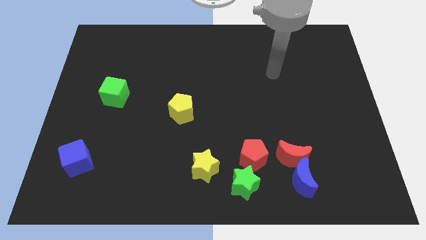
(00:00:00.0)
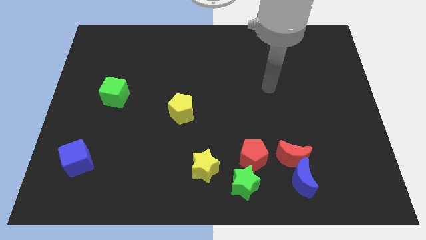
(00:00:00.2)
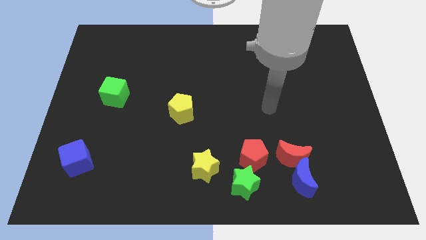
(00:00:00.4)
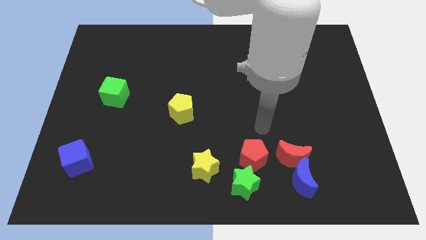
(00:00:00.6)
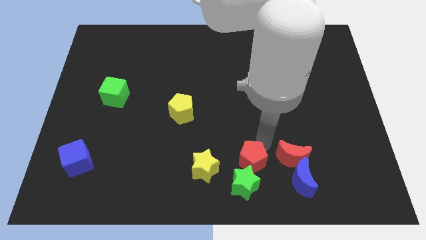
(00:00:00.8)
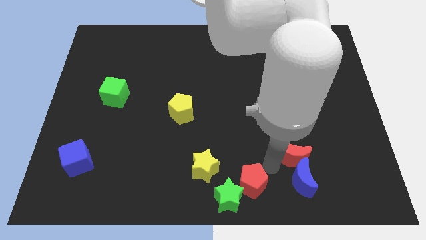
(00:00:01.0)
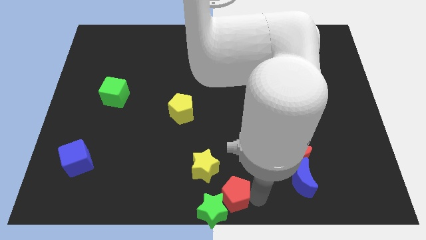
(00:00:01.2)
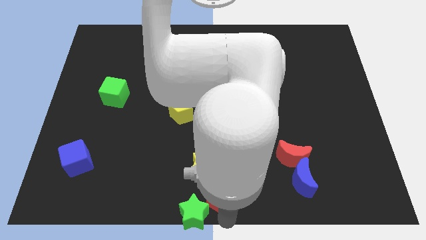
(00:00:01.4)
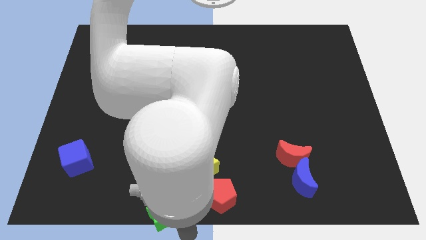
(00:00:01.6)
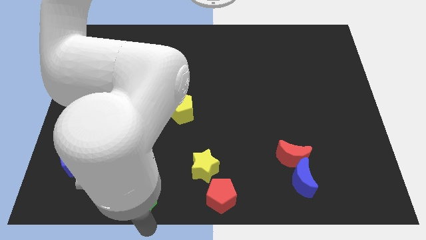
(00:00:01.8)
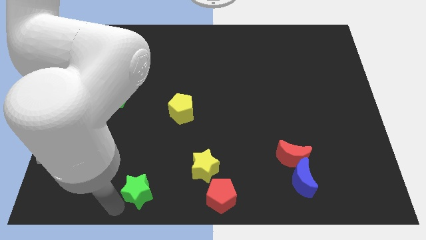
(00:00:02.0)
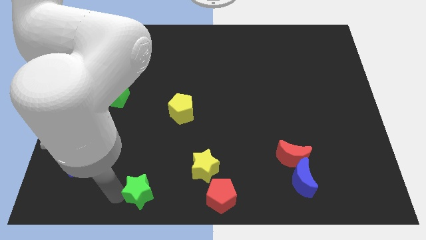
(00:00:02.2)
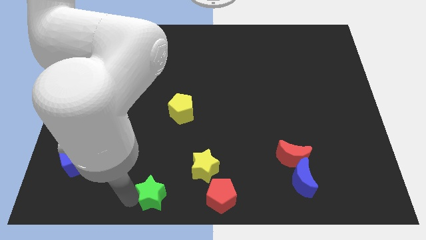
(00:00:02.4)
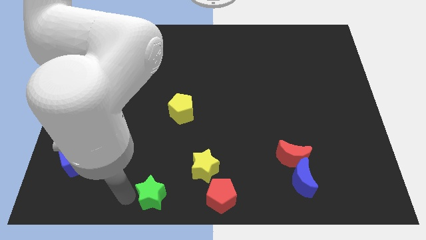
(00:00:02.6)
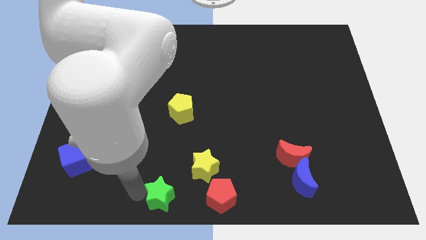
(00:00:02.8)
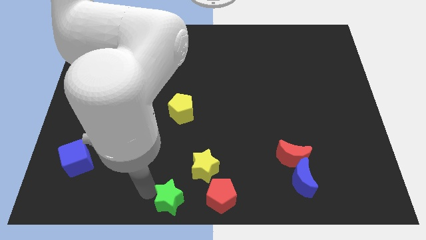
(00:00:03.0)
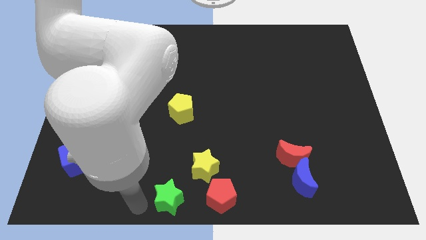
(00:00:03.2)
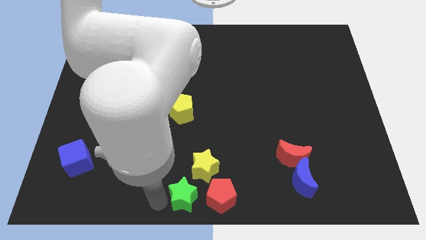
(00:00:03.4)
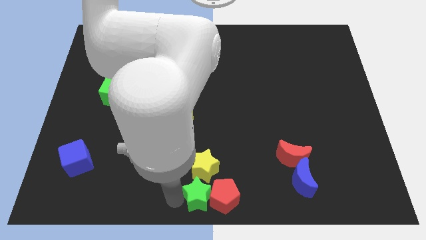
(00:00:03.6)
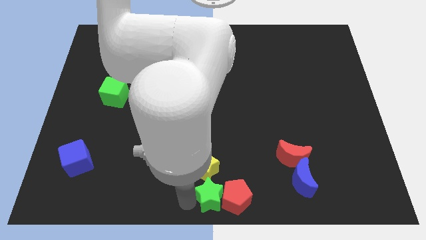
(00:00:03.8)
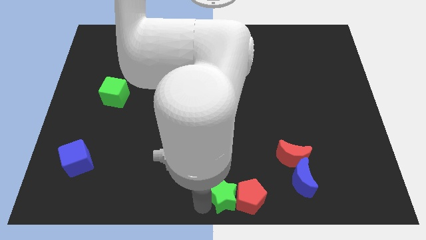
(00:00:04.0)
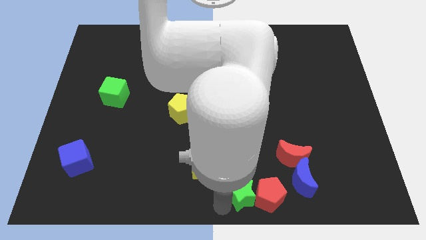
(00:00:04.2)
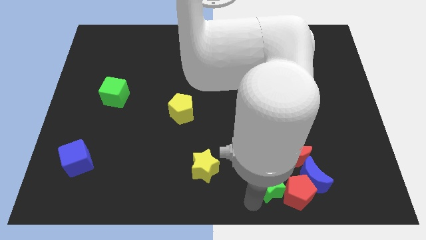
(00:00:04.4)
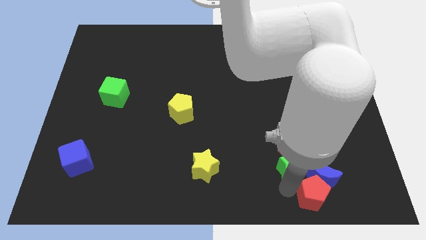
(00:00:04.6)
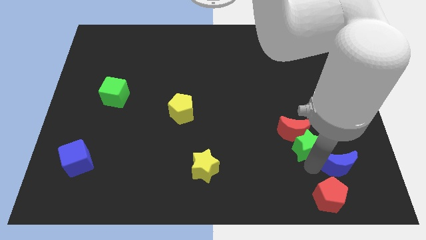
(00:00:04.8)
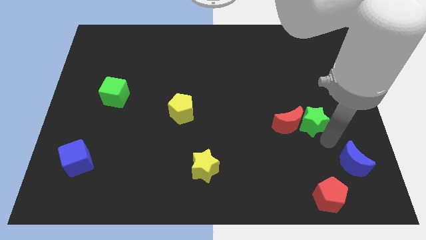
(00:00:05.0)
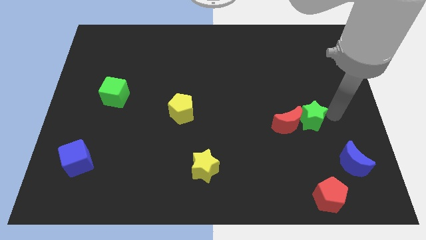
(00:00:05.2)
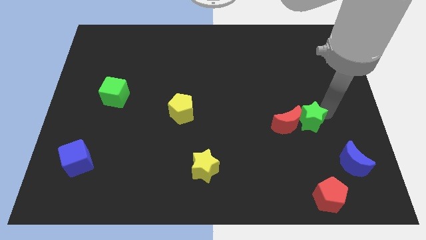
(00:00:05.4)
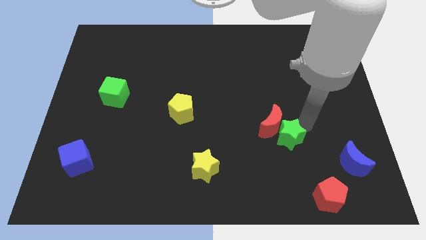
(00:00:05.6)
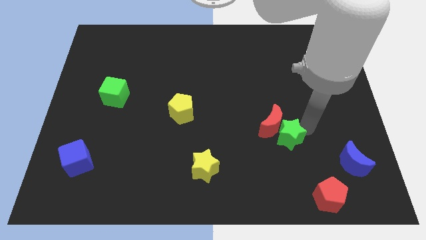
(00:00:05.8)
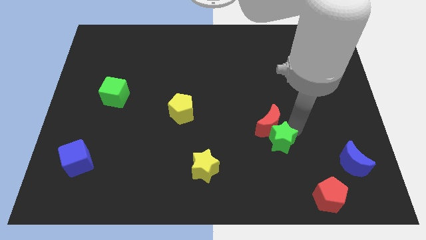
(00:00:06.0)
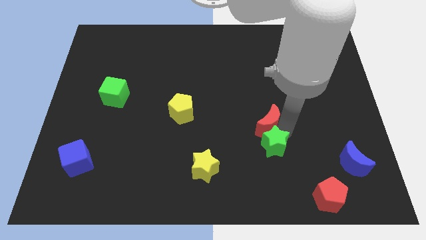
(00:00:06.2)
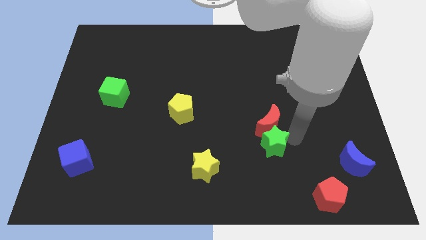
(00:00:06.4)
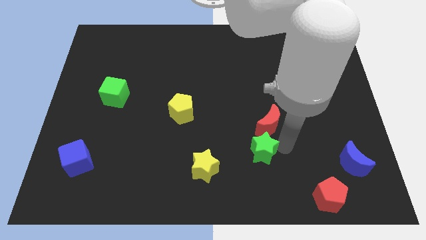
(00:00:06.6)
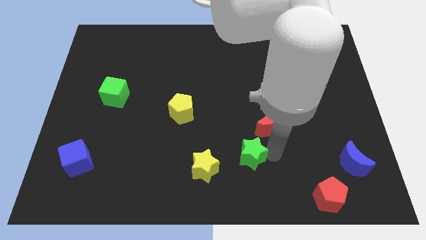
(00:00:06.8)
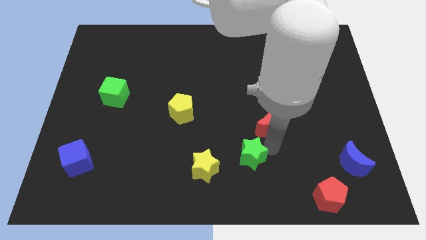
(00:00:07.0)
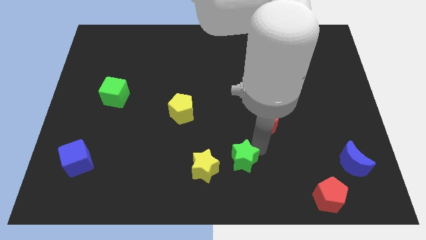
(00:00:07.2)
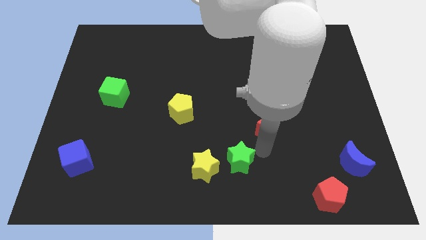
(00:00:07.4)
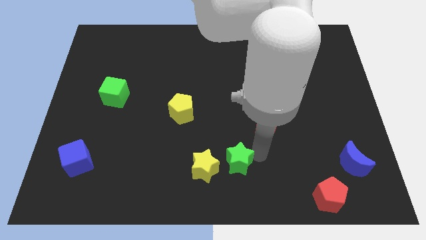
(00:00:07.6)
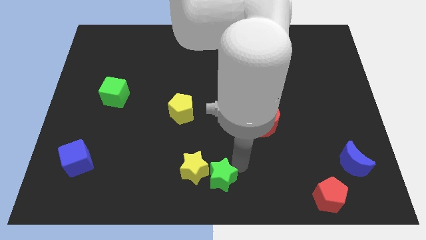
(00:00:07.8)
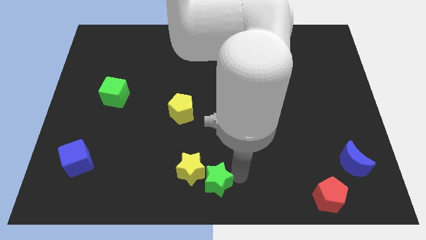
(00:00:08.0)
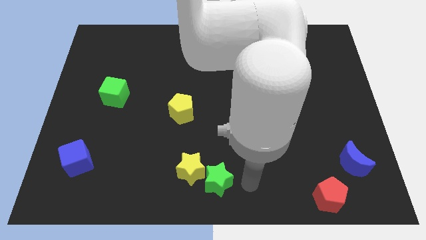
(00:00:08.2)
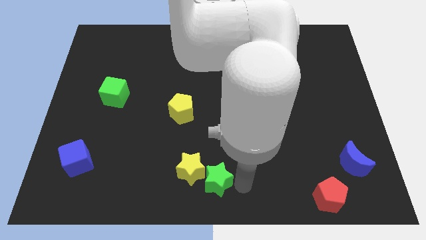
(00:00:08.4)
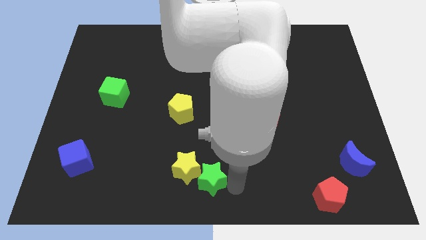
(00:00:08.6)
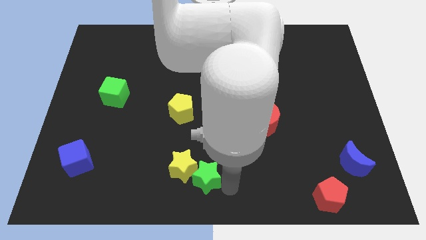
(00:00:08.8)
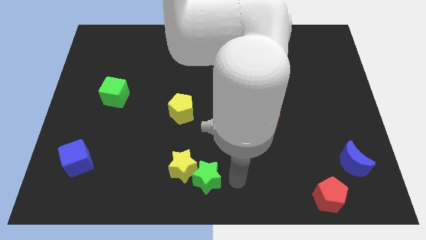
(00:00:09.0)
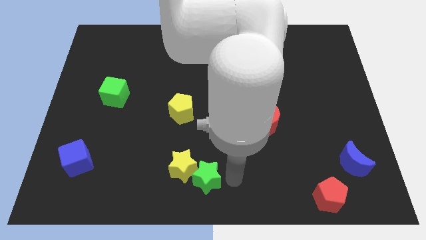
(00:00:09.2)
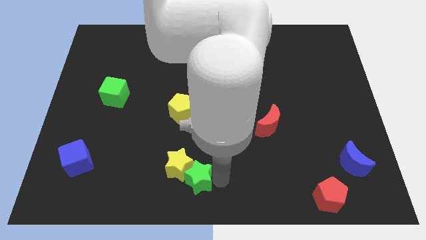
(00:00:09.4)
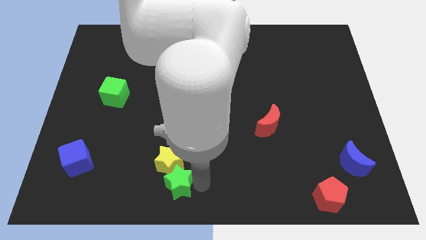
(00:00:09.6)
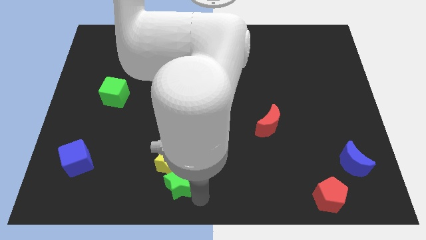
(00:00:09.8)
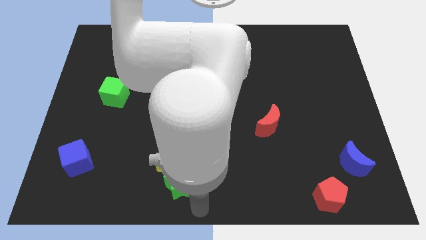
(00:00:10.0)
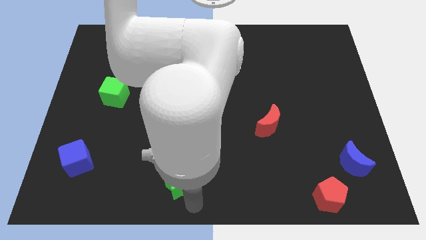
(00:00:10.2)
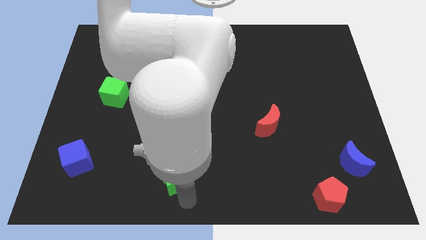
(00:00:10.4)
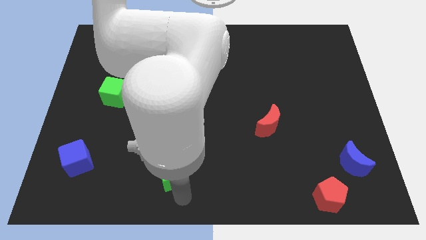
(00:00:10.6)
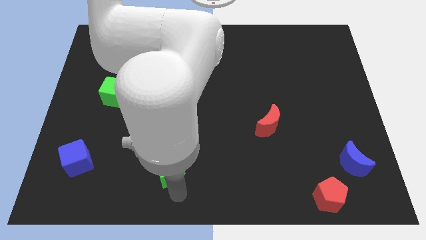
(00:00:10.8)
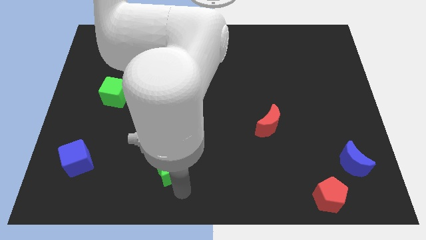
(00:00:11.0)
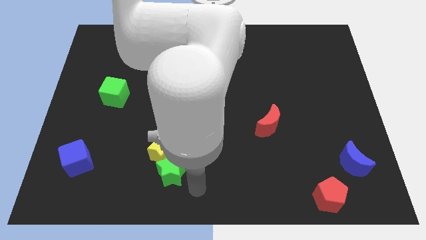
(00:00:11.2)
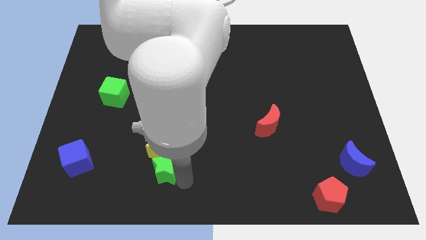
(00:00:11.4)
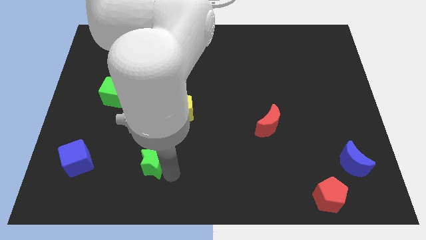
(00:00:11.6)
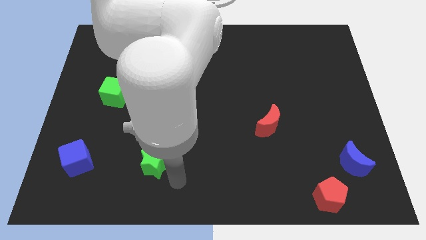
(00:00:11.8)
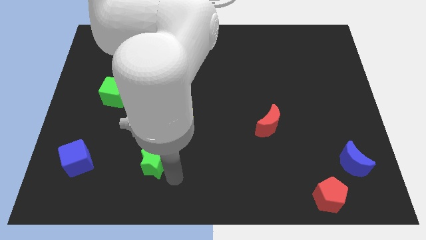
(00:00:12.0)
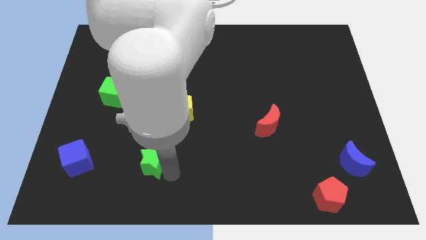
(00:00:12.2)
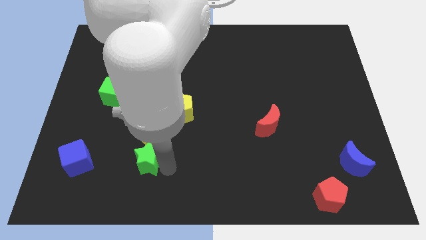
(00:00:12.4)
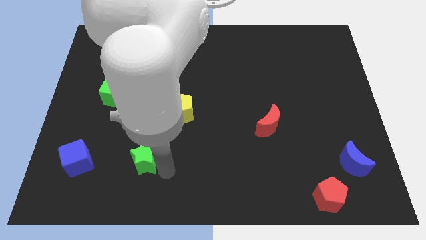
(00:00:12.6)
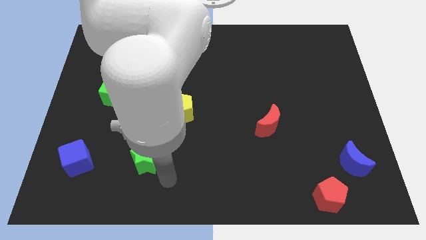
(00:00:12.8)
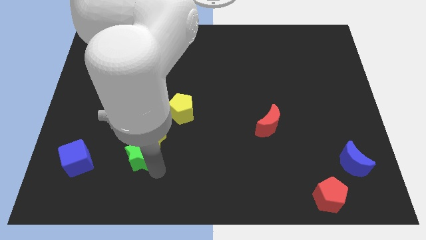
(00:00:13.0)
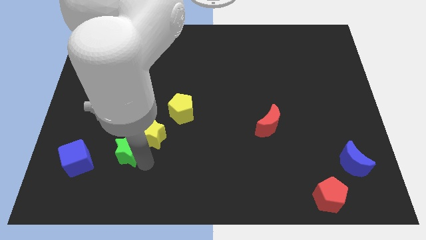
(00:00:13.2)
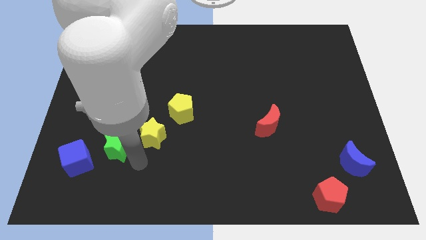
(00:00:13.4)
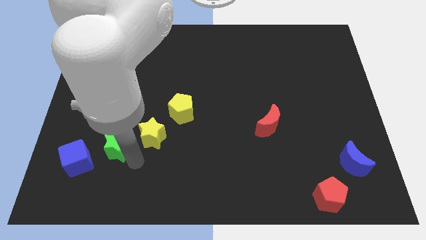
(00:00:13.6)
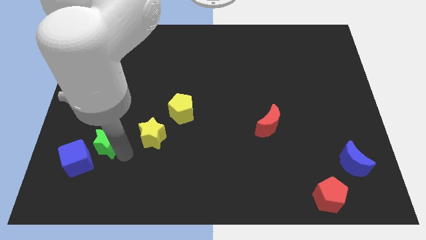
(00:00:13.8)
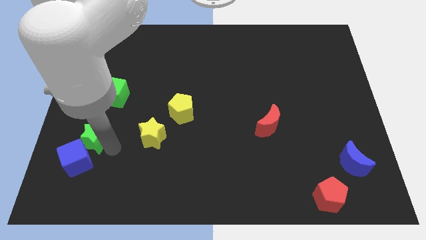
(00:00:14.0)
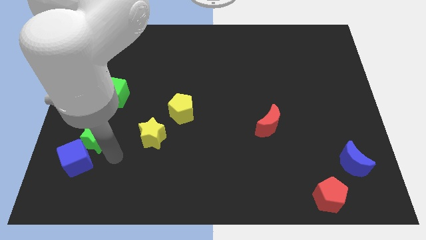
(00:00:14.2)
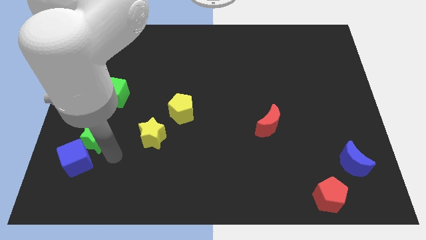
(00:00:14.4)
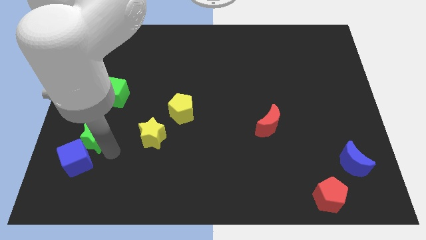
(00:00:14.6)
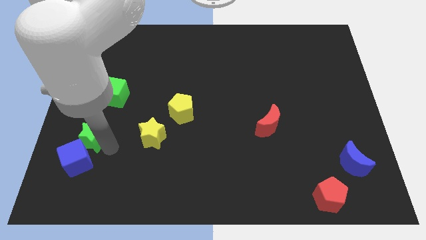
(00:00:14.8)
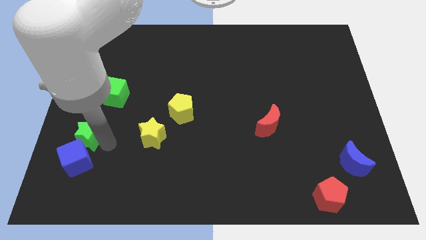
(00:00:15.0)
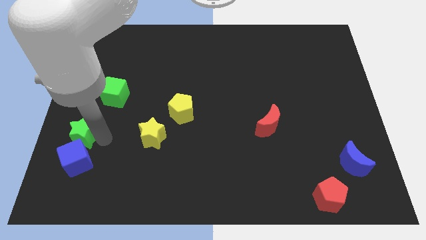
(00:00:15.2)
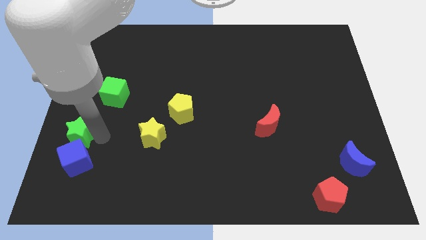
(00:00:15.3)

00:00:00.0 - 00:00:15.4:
put the green star to the left side
